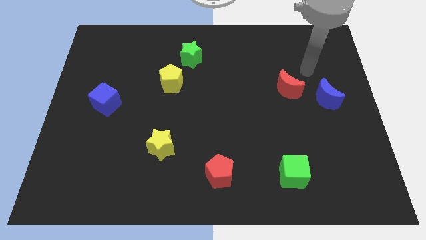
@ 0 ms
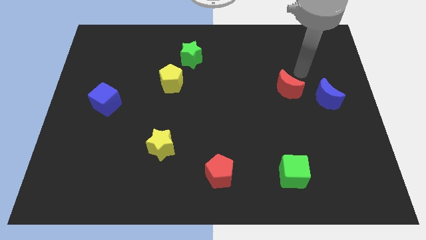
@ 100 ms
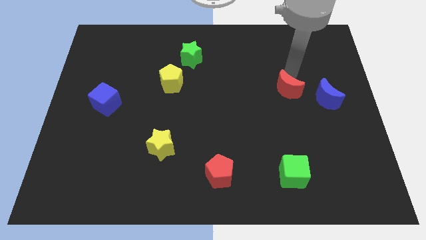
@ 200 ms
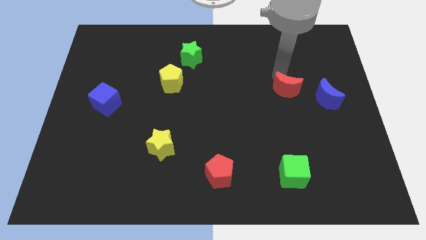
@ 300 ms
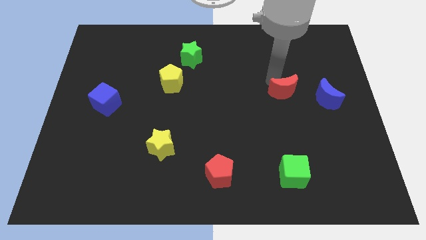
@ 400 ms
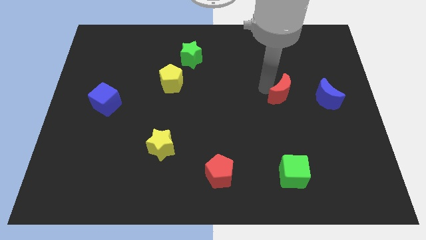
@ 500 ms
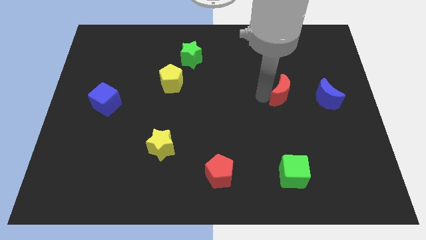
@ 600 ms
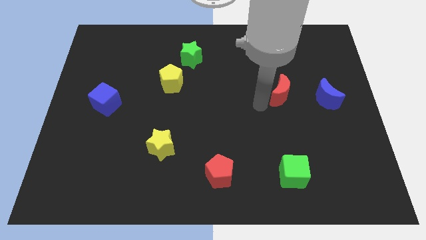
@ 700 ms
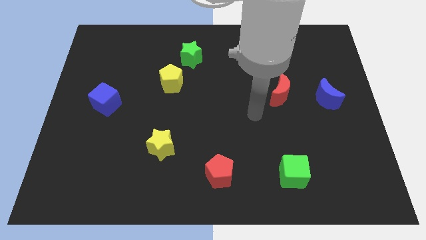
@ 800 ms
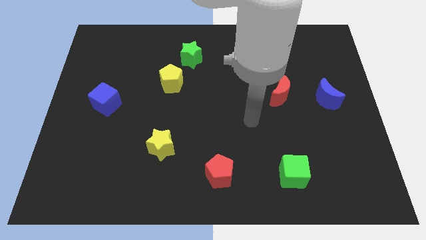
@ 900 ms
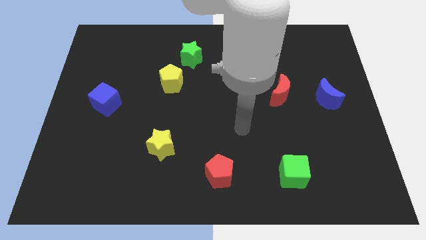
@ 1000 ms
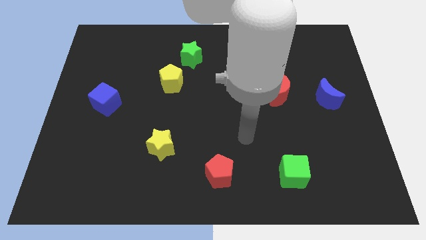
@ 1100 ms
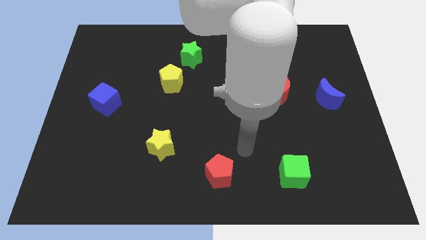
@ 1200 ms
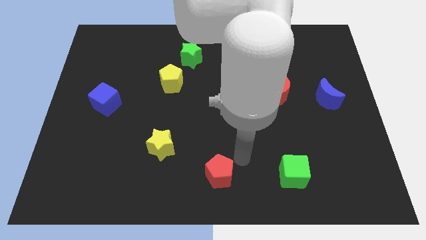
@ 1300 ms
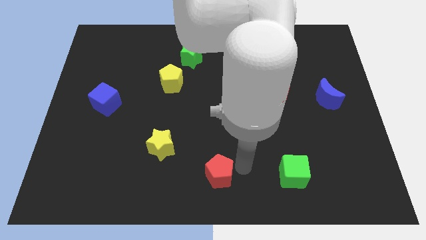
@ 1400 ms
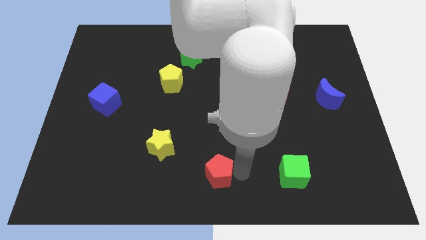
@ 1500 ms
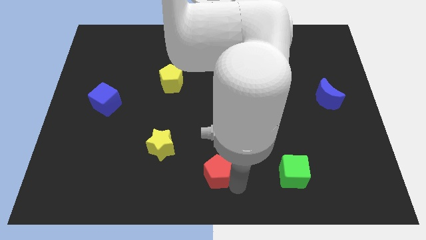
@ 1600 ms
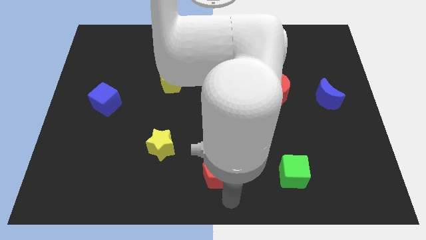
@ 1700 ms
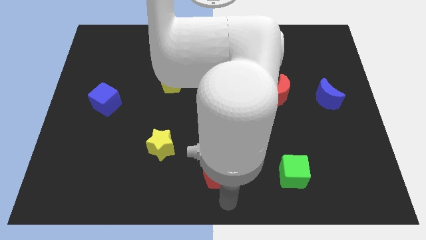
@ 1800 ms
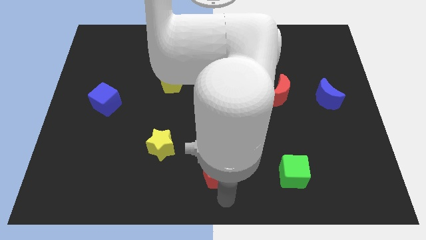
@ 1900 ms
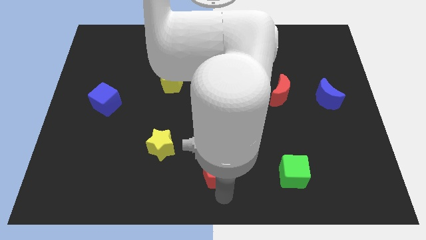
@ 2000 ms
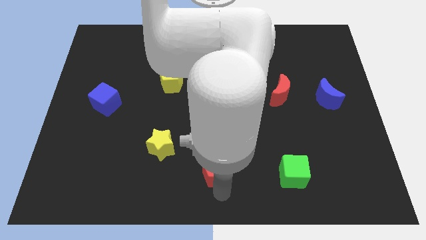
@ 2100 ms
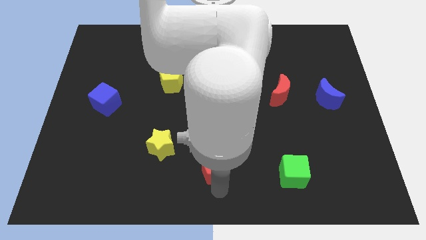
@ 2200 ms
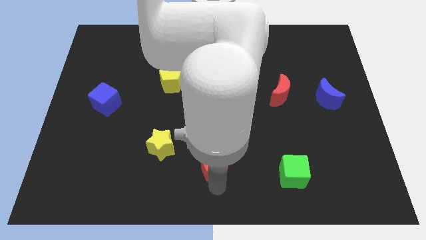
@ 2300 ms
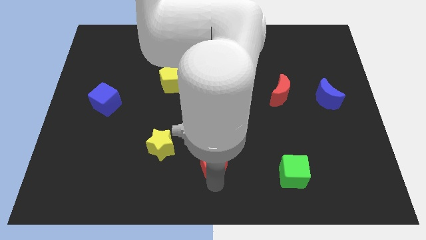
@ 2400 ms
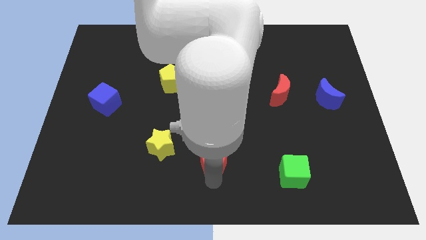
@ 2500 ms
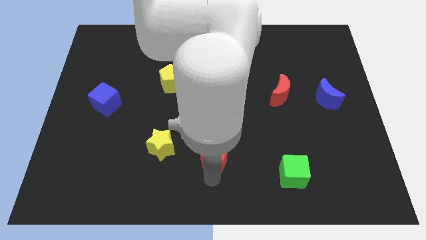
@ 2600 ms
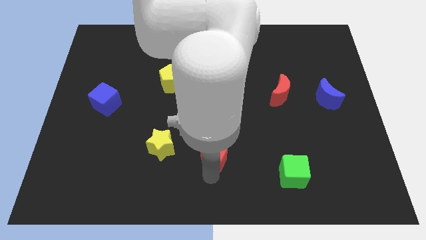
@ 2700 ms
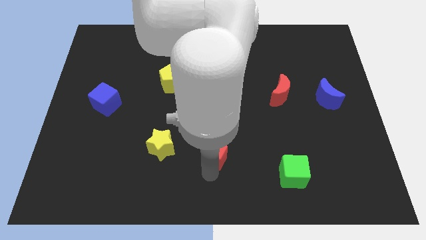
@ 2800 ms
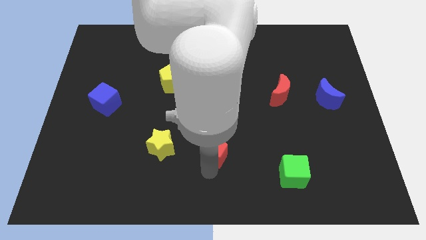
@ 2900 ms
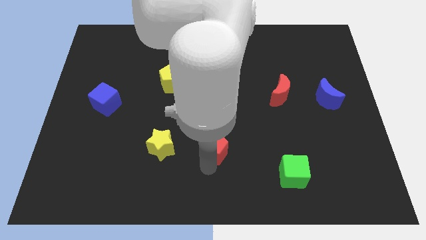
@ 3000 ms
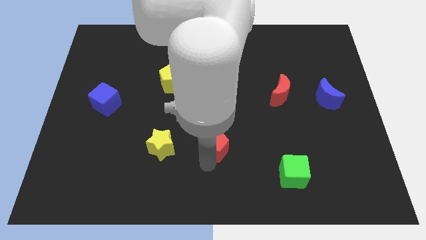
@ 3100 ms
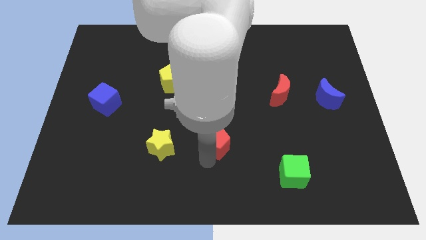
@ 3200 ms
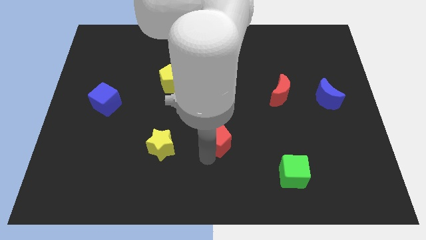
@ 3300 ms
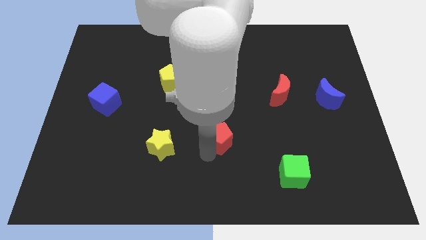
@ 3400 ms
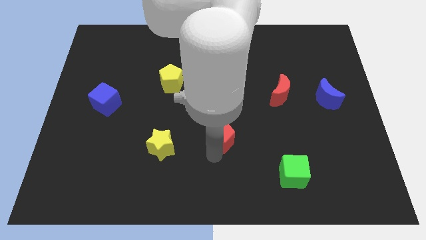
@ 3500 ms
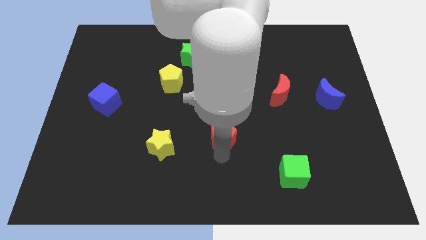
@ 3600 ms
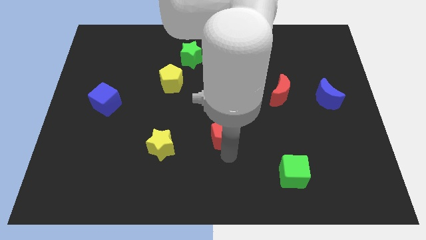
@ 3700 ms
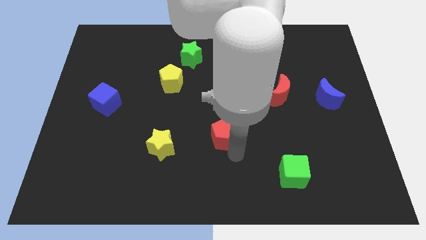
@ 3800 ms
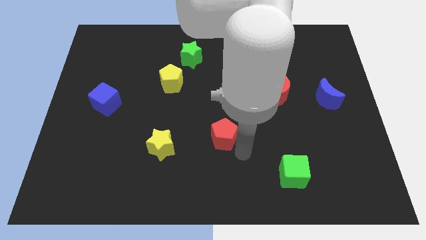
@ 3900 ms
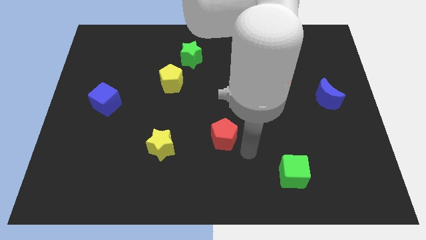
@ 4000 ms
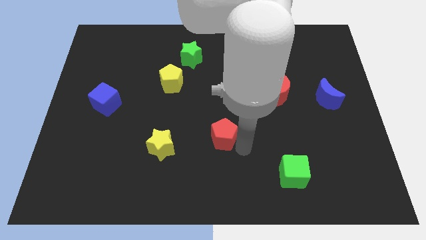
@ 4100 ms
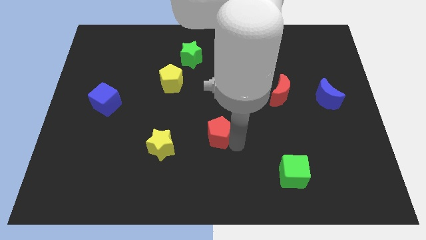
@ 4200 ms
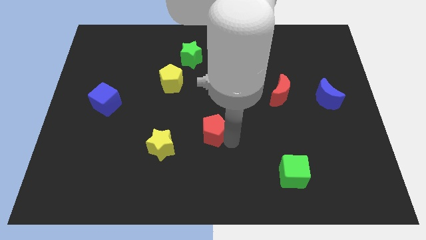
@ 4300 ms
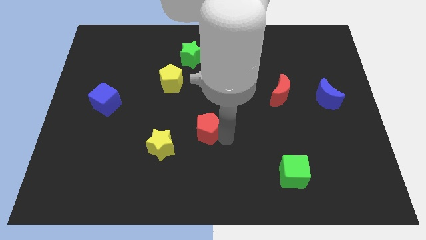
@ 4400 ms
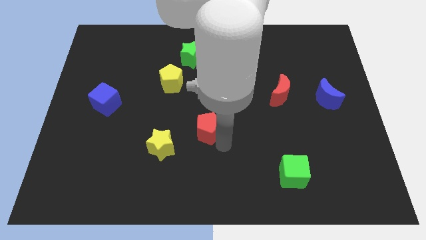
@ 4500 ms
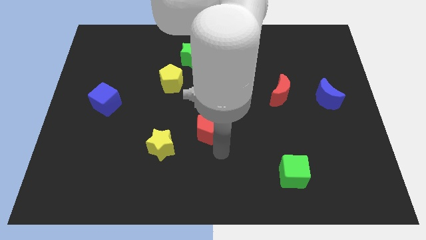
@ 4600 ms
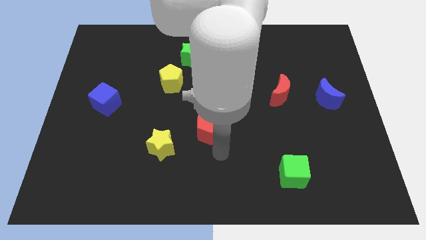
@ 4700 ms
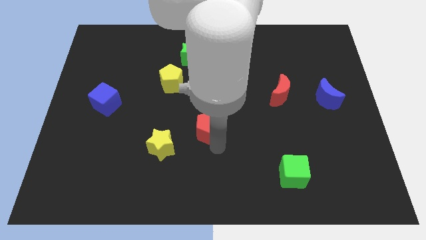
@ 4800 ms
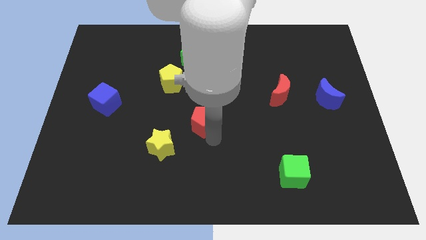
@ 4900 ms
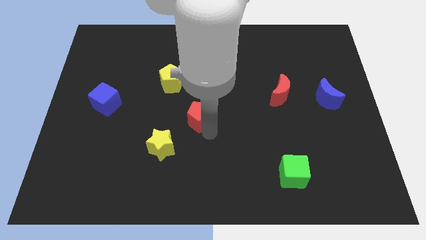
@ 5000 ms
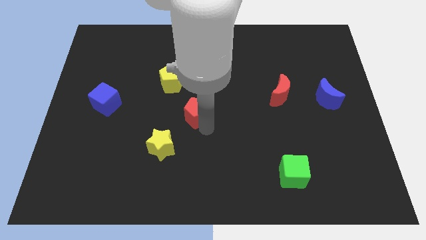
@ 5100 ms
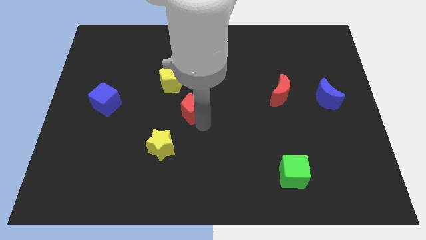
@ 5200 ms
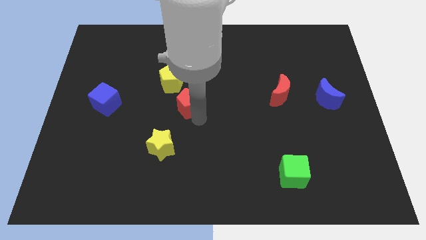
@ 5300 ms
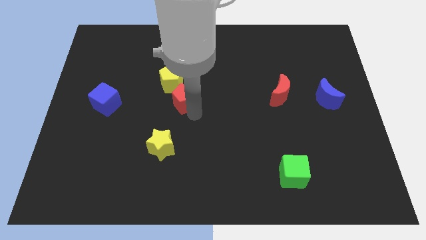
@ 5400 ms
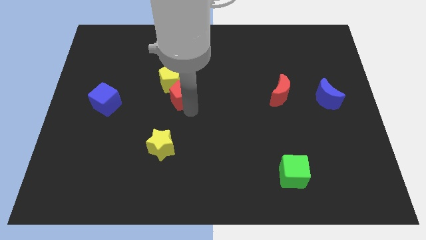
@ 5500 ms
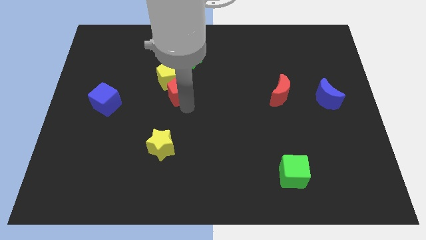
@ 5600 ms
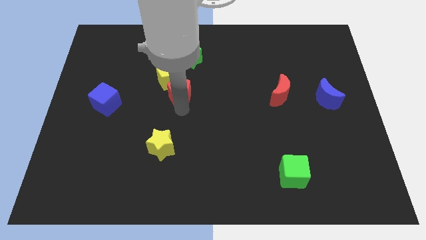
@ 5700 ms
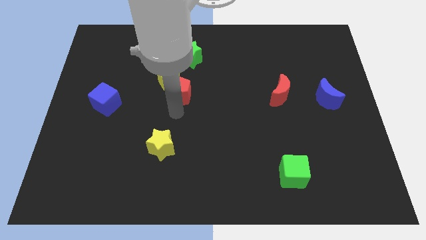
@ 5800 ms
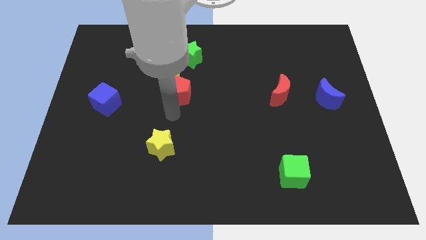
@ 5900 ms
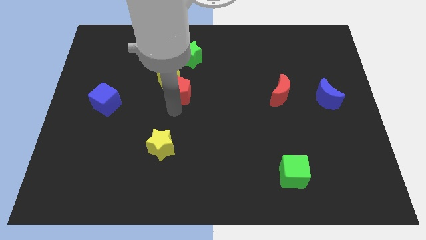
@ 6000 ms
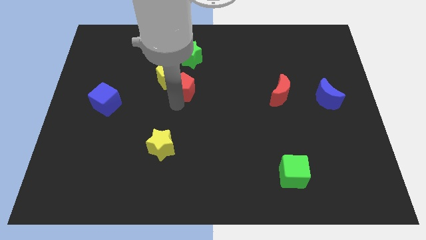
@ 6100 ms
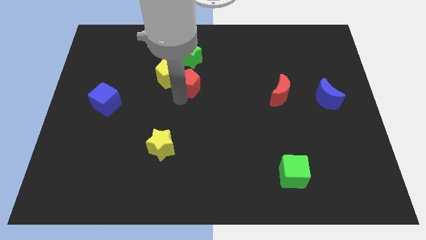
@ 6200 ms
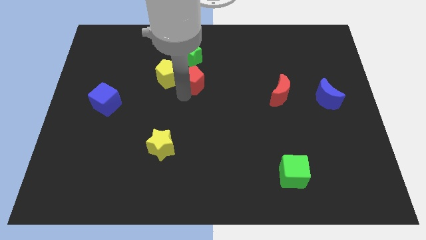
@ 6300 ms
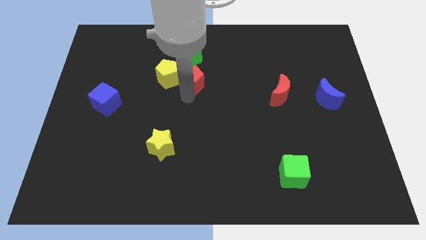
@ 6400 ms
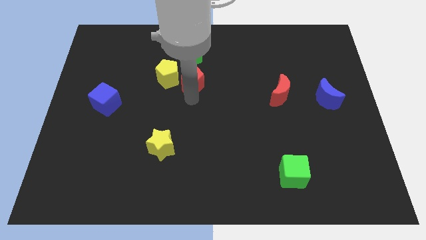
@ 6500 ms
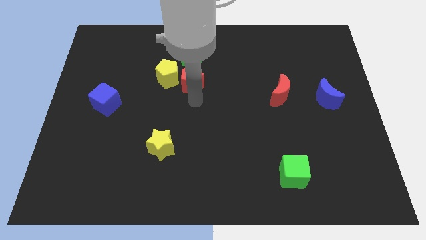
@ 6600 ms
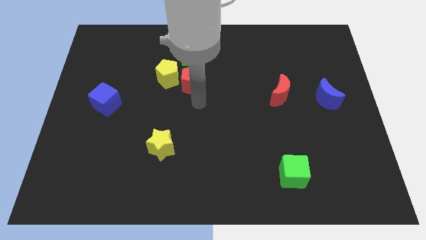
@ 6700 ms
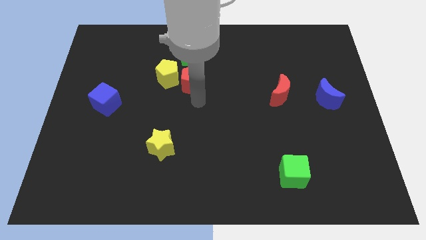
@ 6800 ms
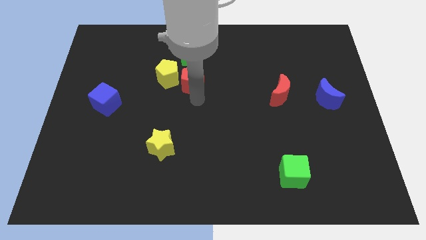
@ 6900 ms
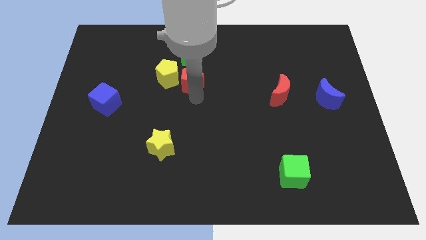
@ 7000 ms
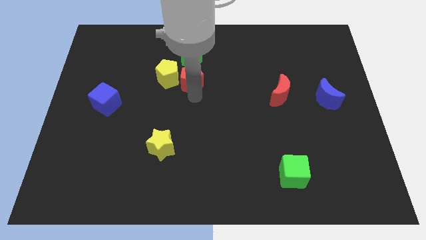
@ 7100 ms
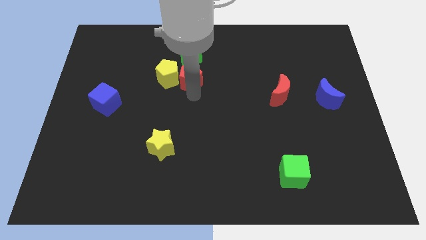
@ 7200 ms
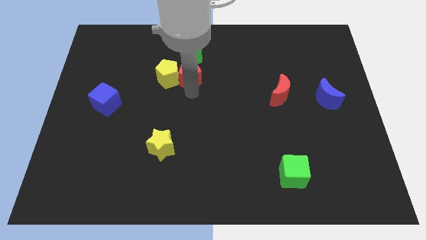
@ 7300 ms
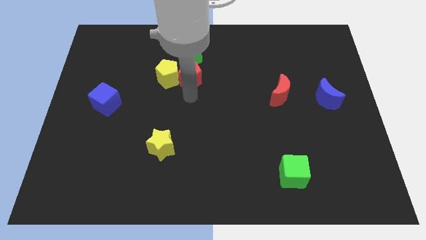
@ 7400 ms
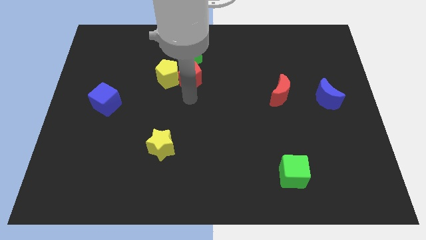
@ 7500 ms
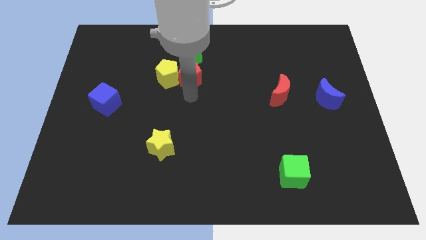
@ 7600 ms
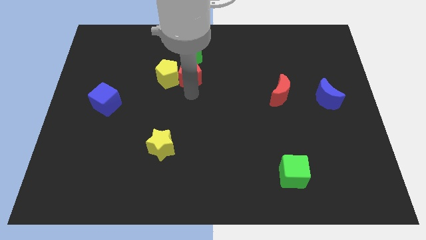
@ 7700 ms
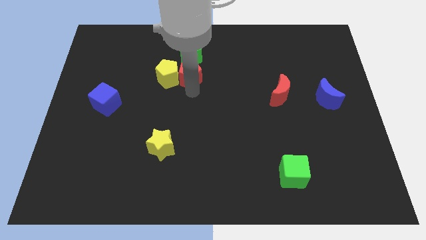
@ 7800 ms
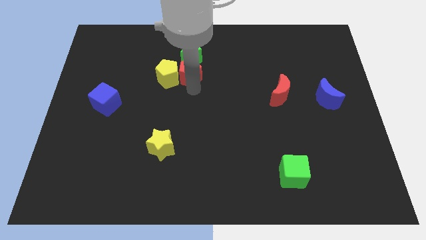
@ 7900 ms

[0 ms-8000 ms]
push the red pentagon close to the green star

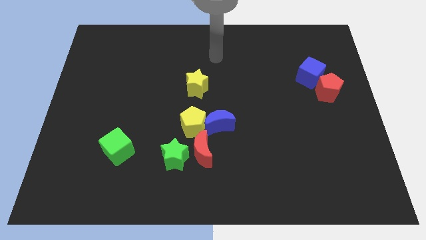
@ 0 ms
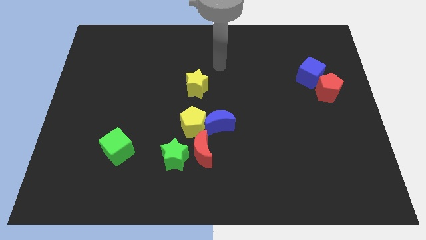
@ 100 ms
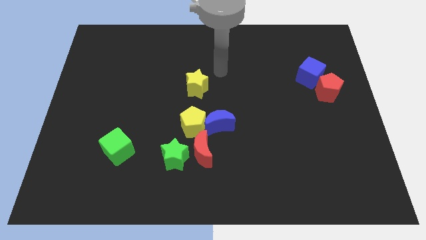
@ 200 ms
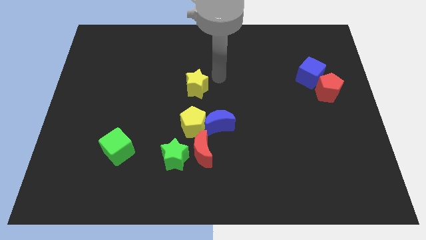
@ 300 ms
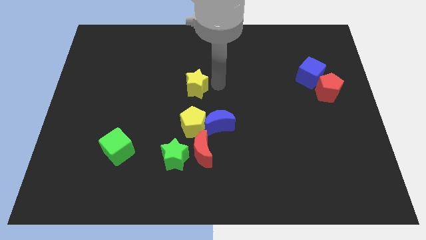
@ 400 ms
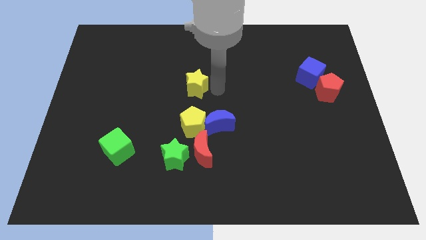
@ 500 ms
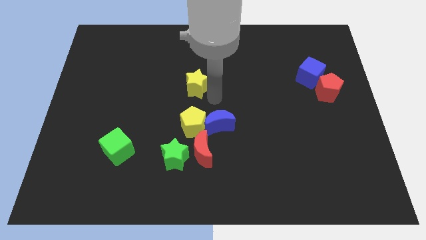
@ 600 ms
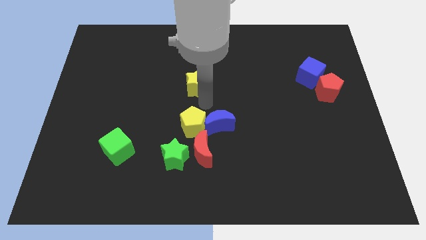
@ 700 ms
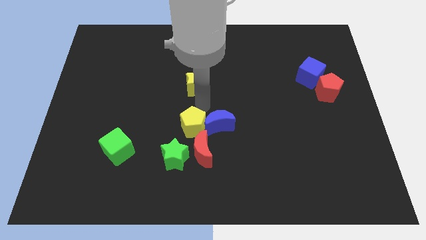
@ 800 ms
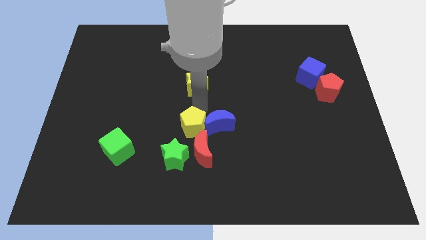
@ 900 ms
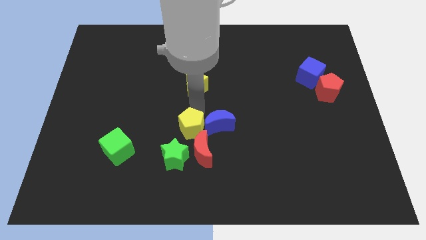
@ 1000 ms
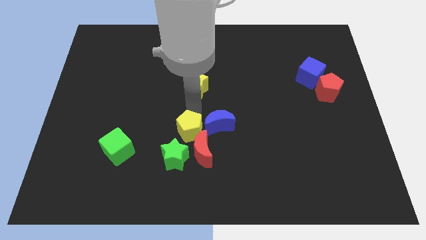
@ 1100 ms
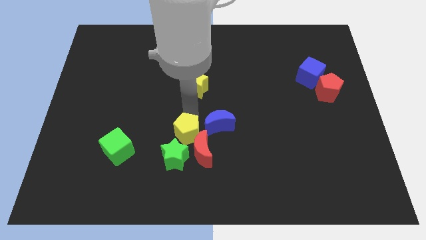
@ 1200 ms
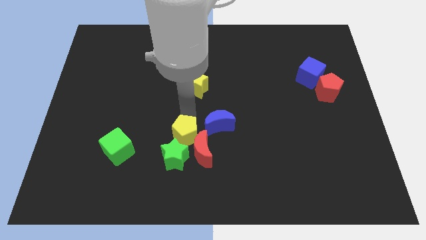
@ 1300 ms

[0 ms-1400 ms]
slide the yellow pentagon close to the green star
